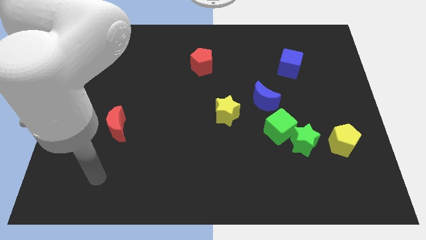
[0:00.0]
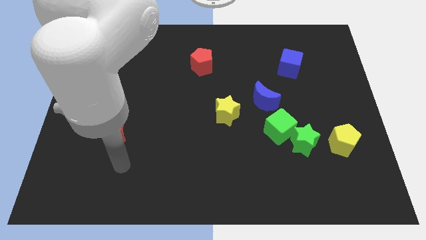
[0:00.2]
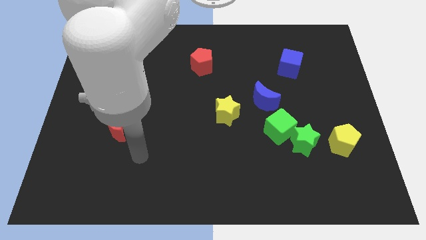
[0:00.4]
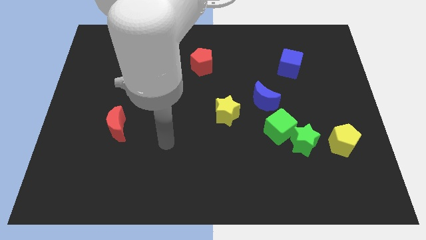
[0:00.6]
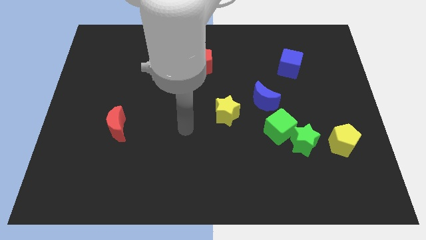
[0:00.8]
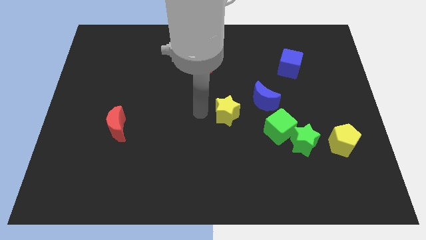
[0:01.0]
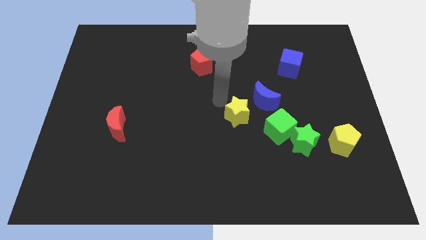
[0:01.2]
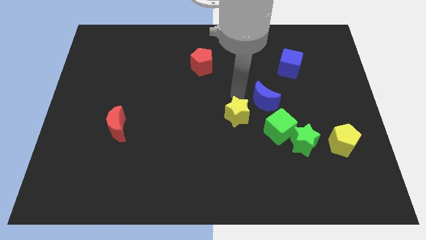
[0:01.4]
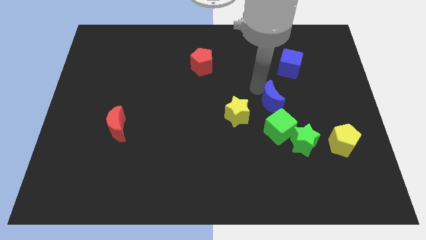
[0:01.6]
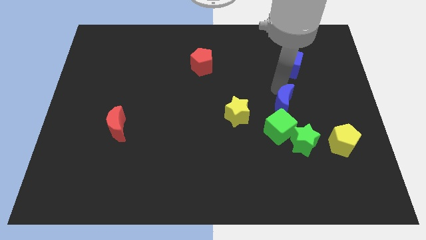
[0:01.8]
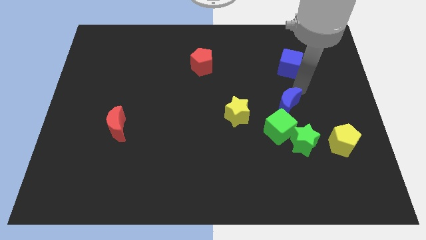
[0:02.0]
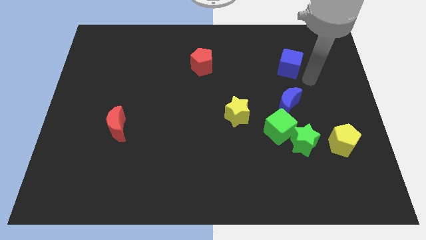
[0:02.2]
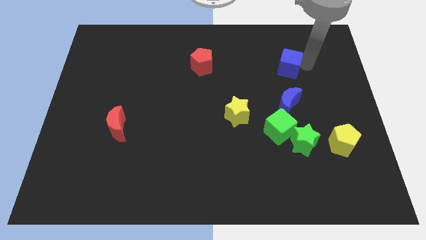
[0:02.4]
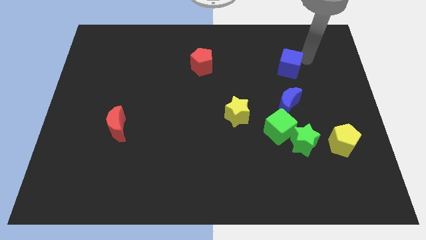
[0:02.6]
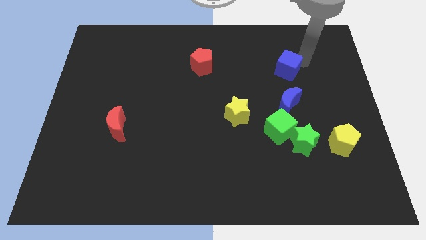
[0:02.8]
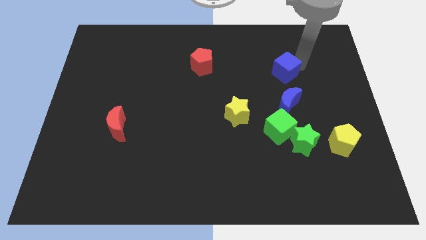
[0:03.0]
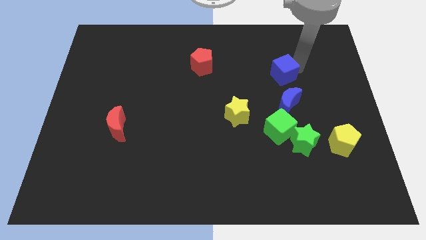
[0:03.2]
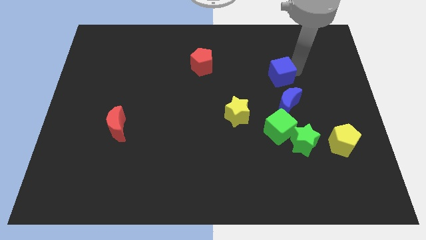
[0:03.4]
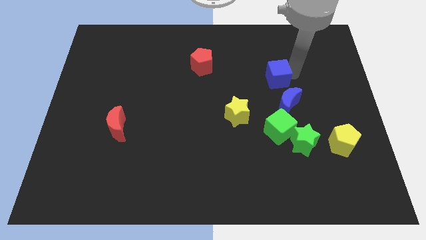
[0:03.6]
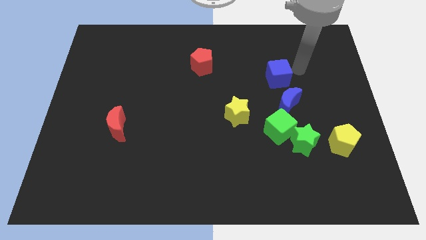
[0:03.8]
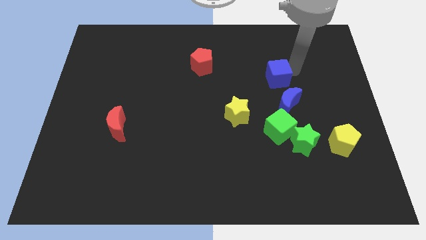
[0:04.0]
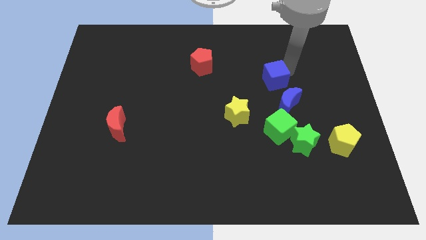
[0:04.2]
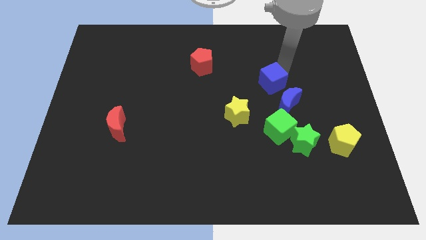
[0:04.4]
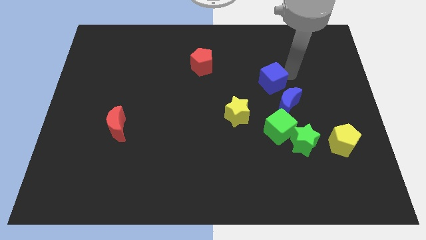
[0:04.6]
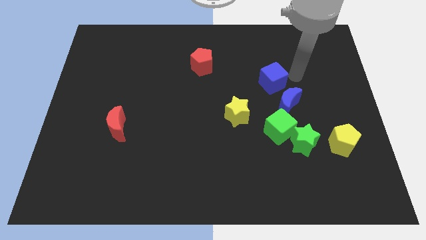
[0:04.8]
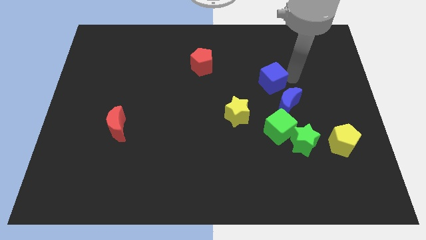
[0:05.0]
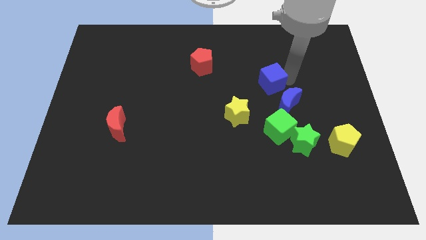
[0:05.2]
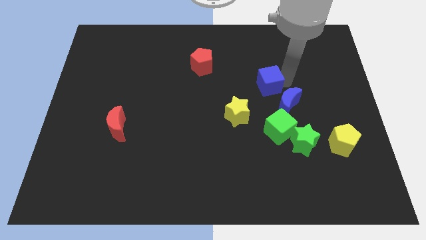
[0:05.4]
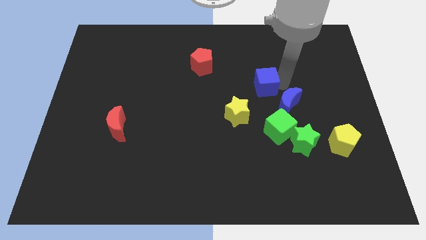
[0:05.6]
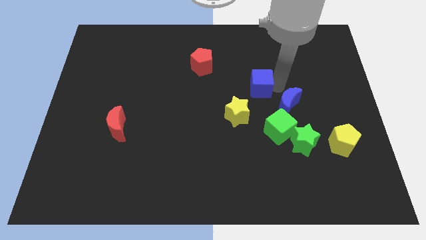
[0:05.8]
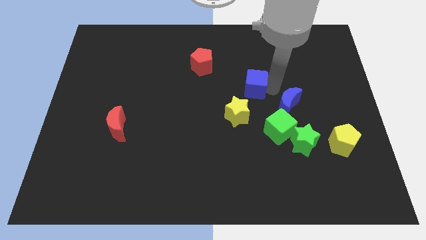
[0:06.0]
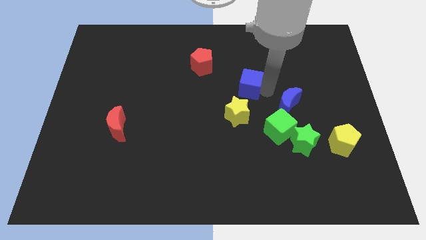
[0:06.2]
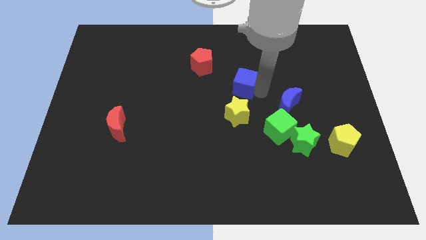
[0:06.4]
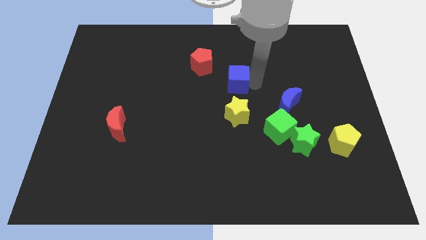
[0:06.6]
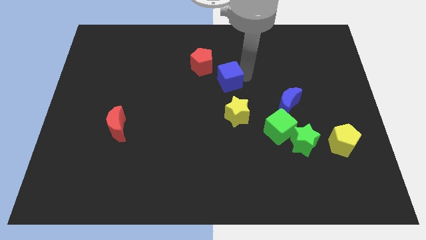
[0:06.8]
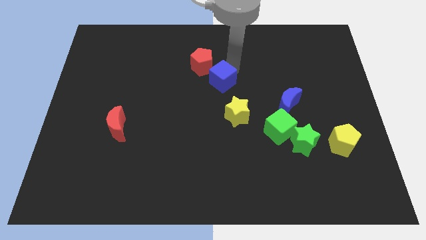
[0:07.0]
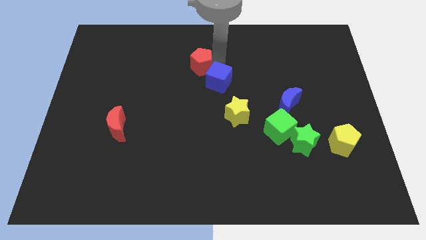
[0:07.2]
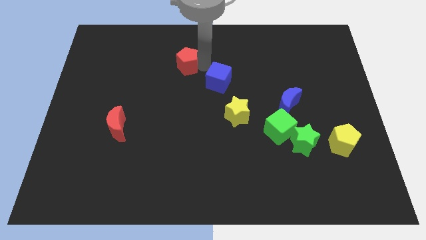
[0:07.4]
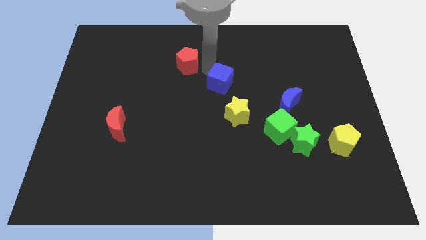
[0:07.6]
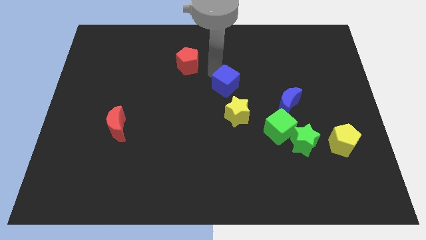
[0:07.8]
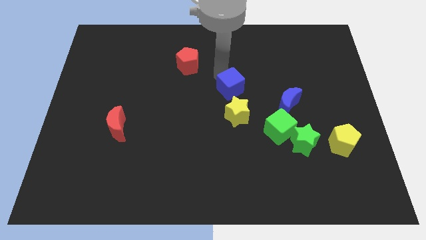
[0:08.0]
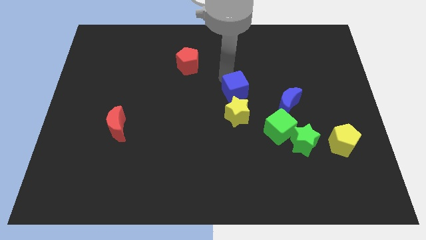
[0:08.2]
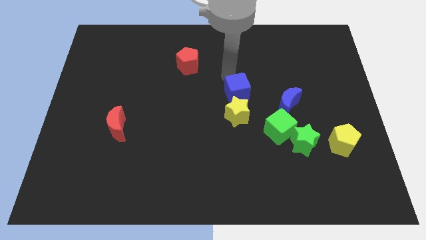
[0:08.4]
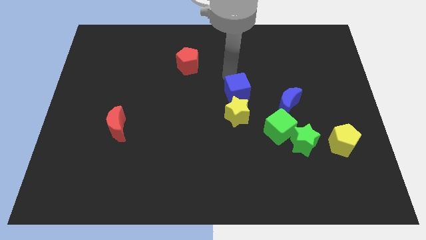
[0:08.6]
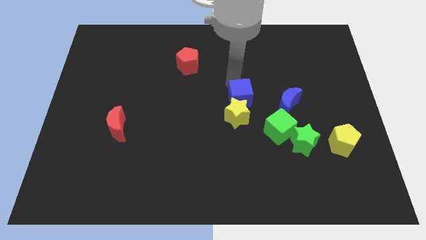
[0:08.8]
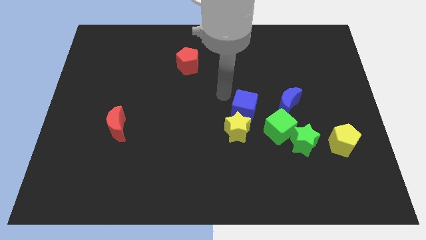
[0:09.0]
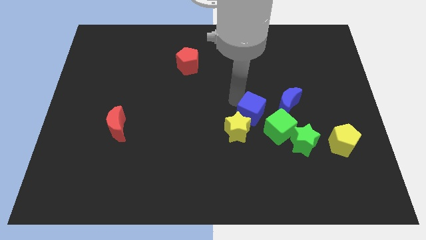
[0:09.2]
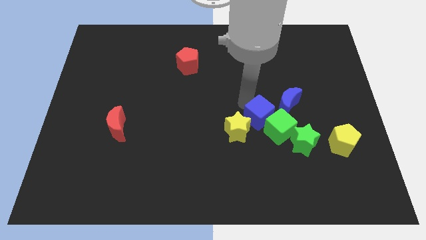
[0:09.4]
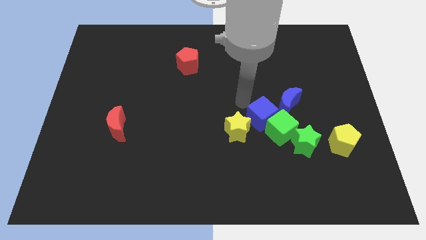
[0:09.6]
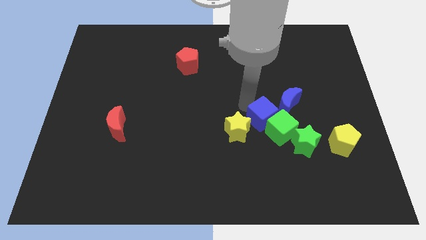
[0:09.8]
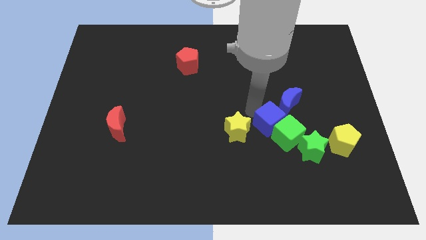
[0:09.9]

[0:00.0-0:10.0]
slide the blue cube below the blue moon
